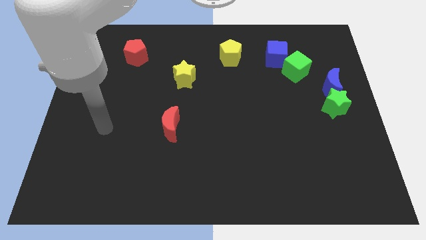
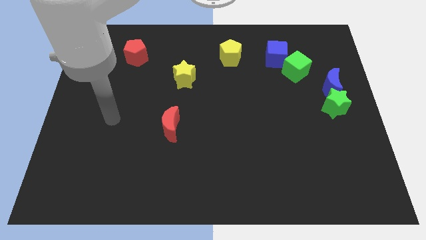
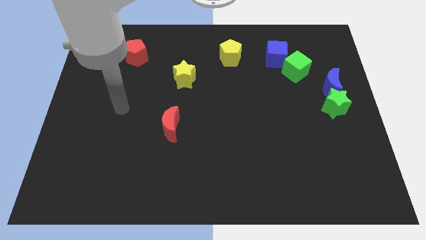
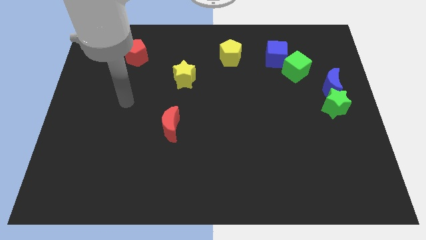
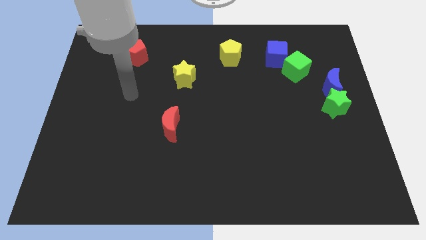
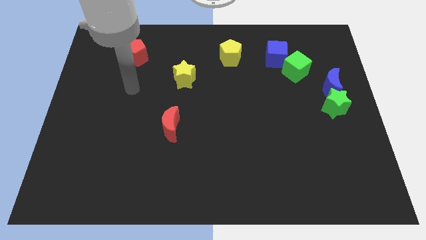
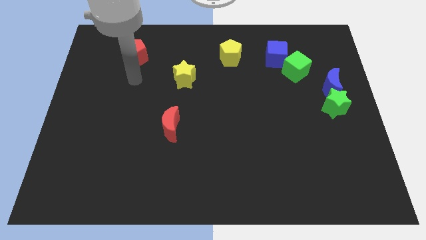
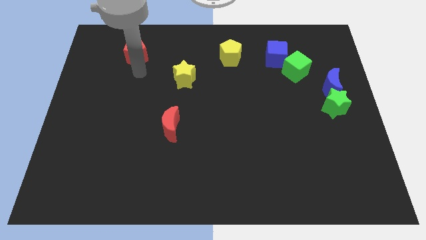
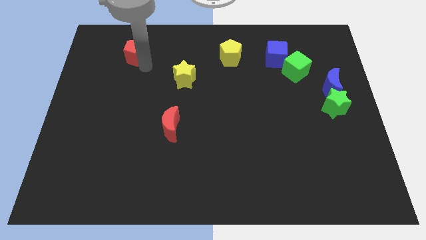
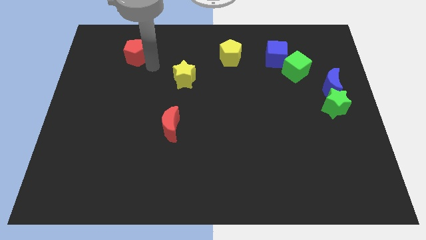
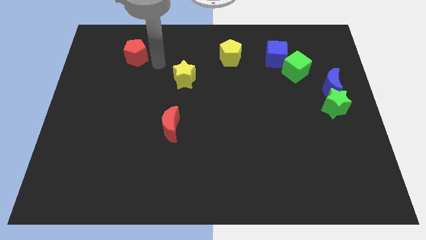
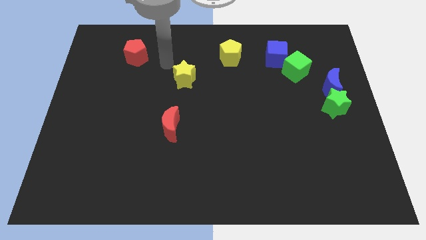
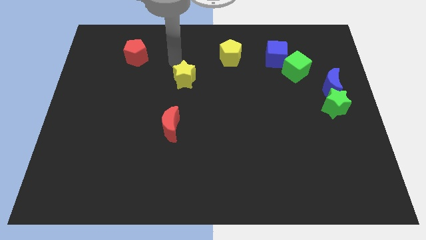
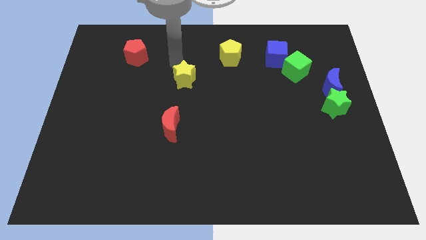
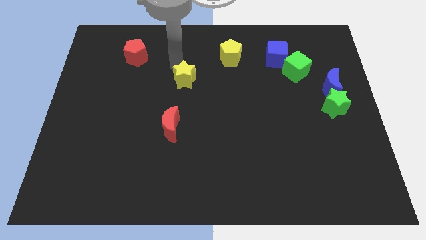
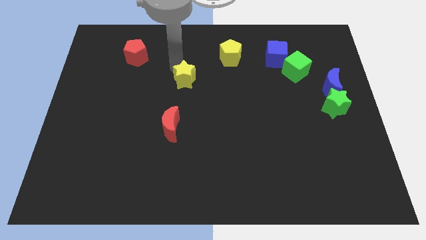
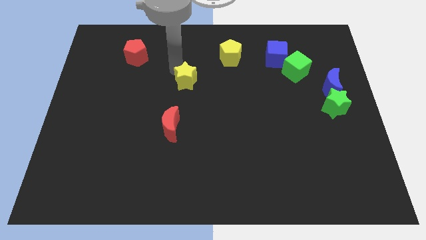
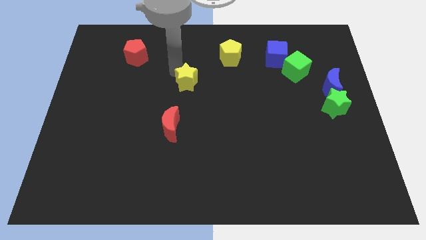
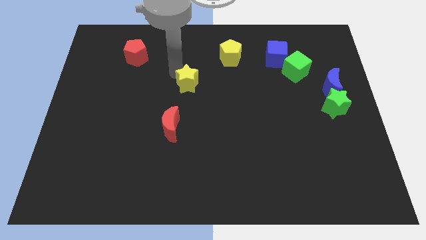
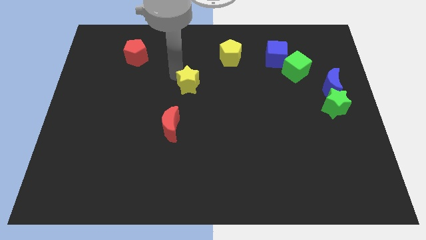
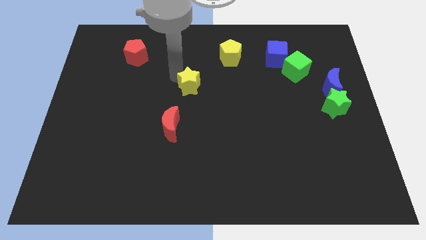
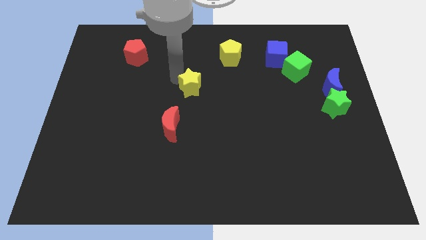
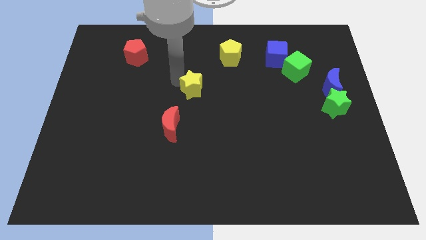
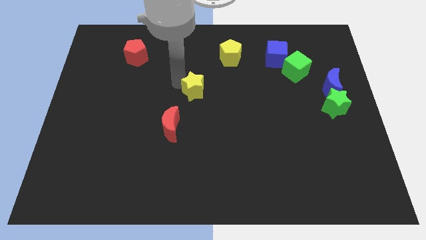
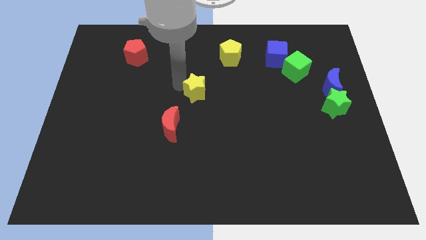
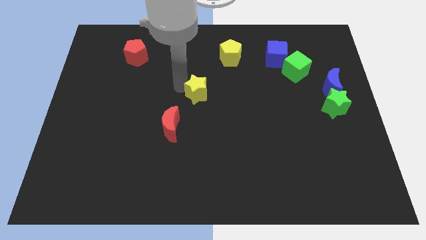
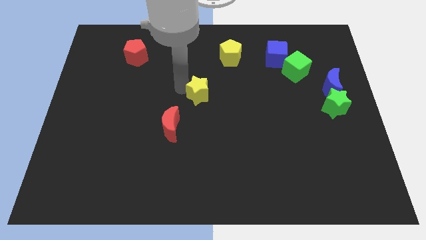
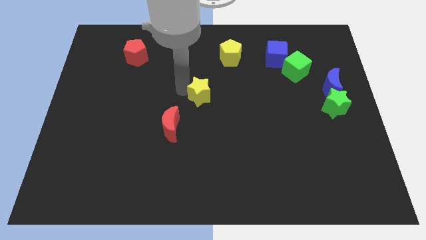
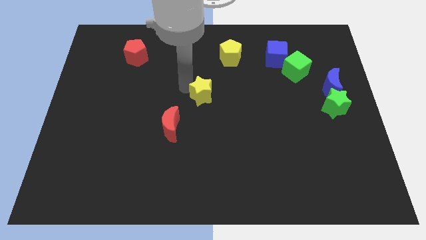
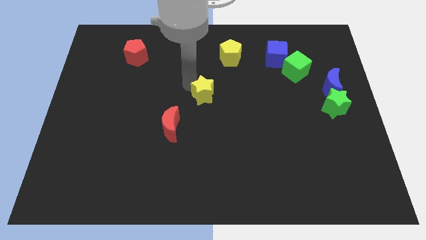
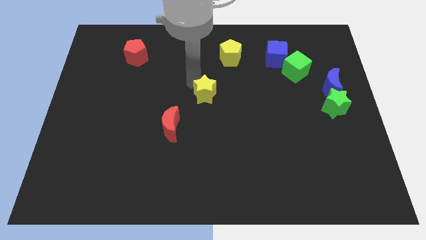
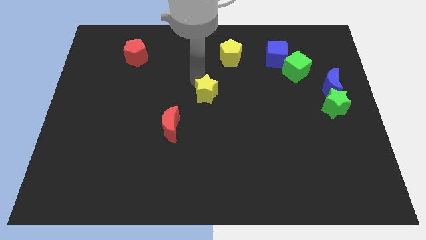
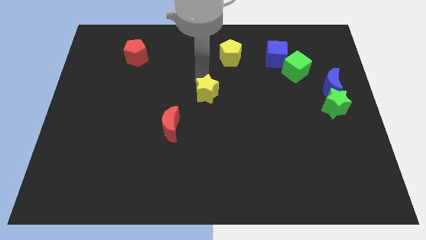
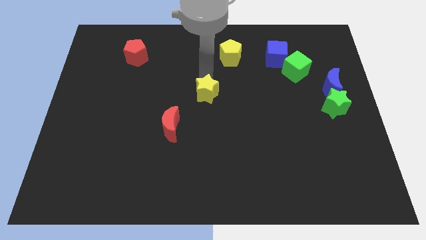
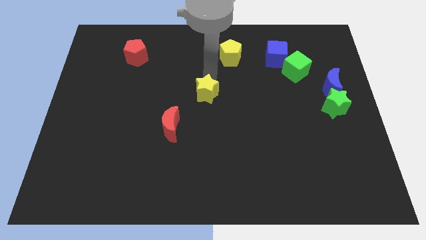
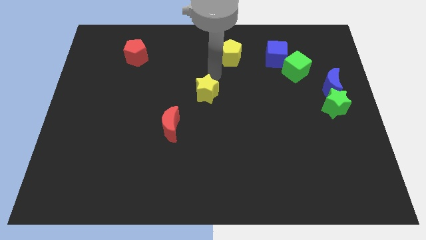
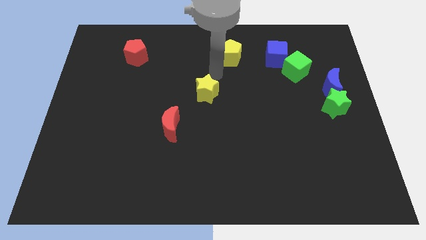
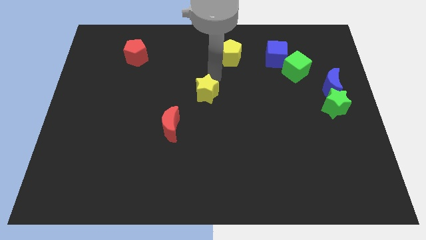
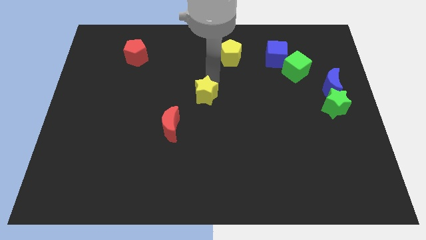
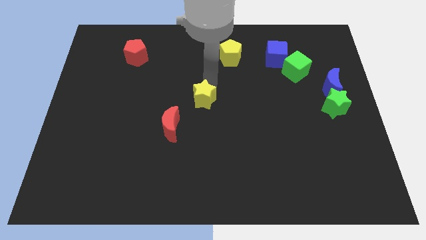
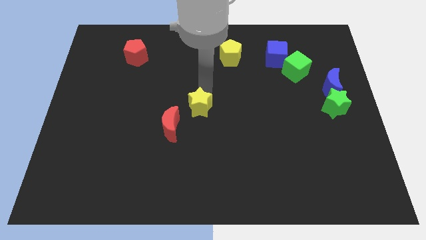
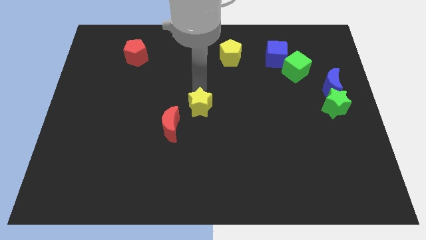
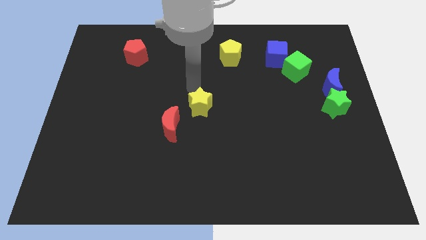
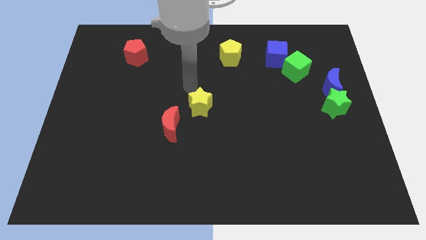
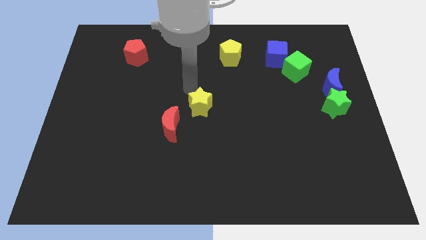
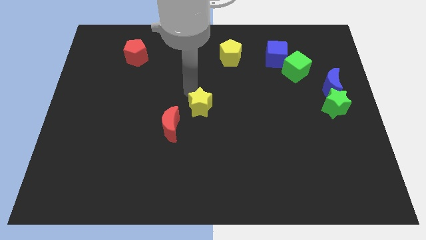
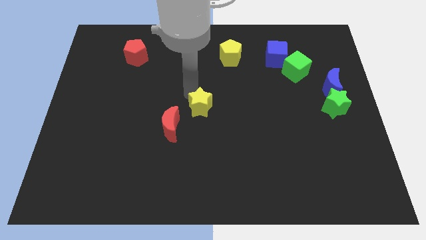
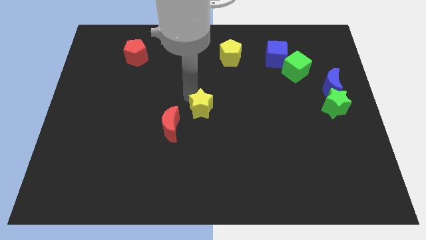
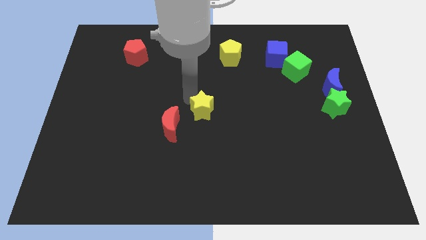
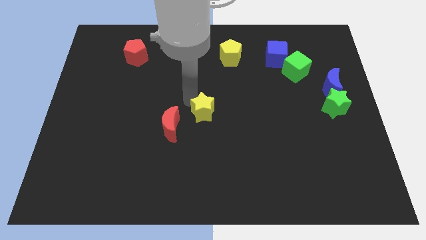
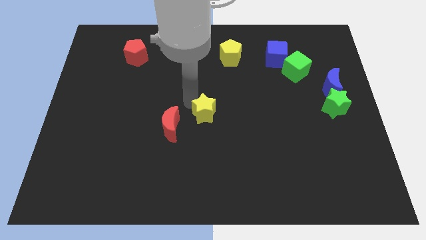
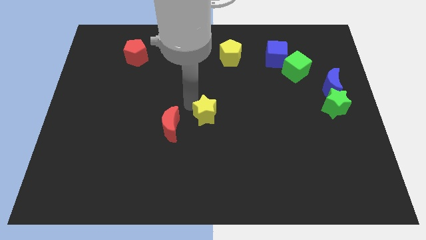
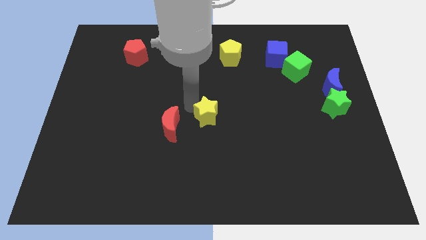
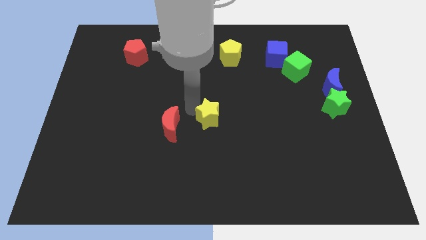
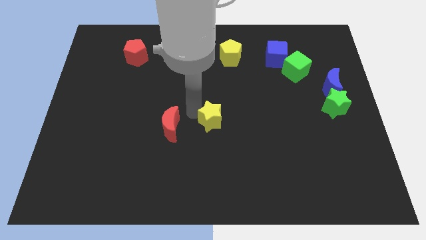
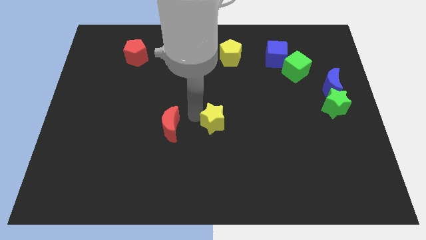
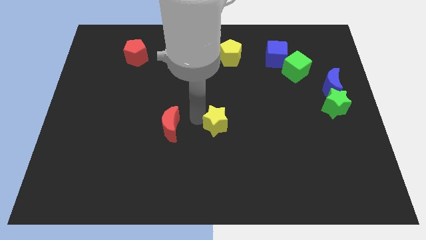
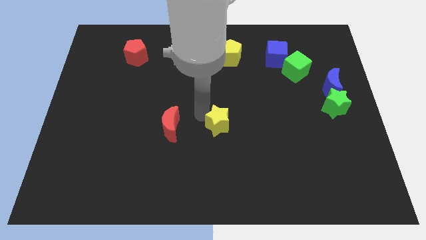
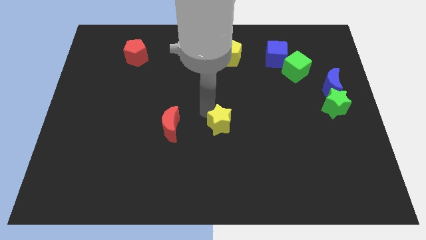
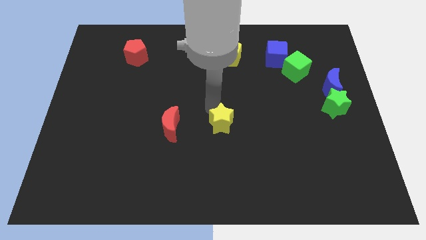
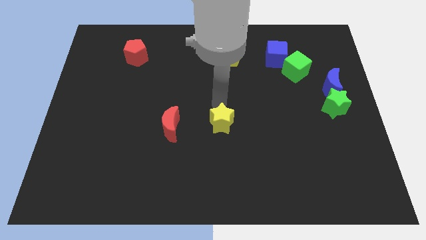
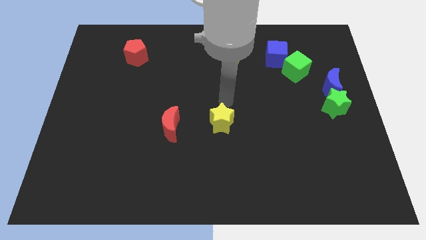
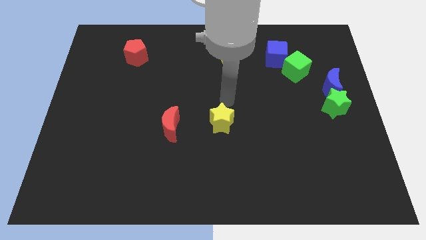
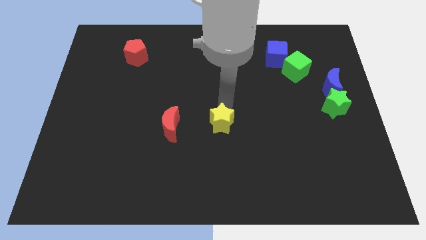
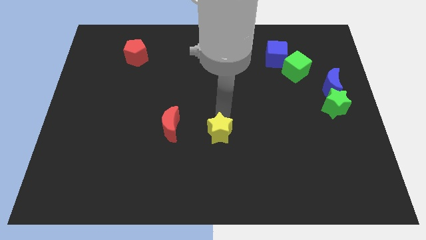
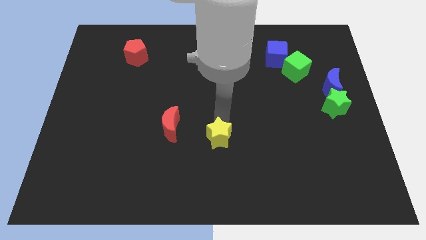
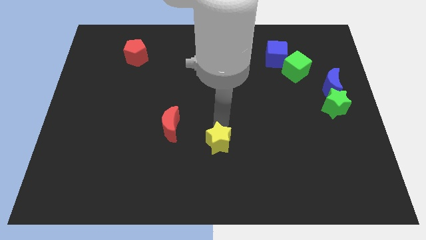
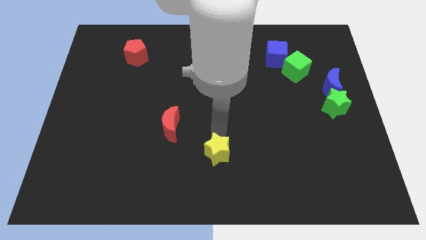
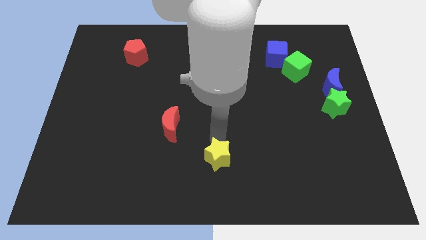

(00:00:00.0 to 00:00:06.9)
move the yellow star to the bottom

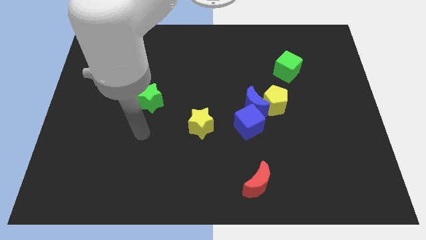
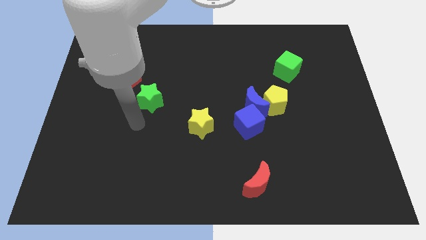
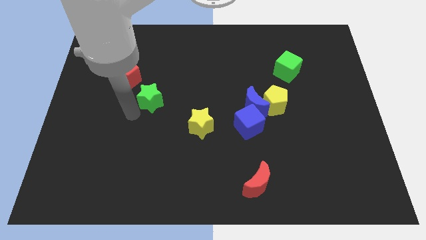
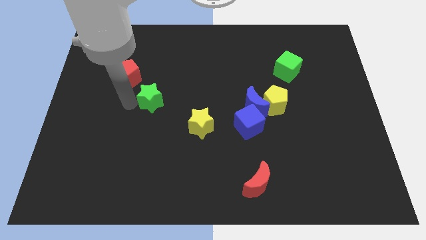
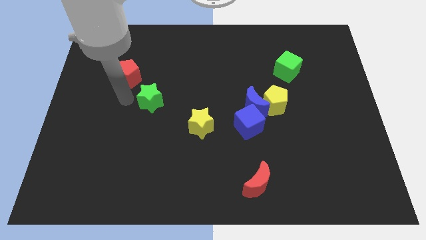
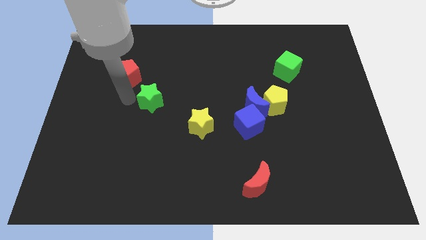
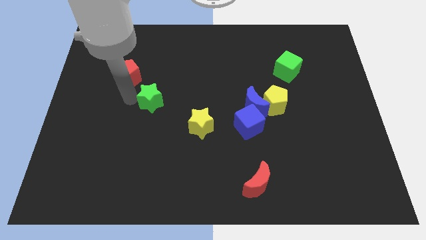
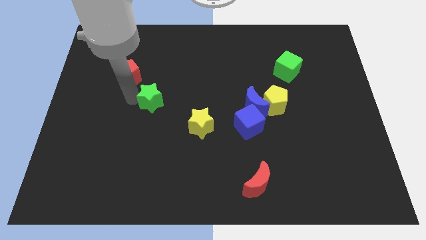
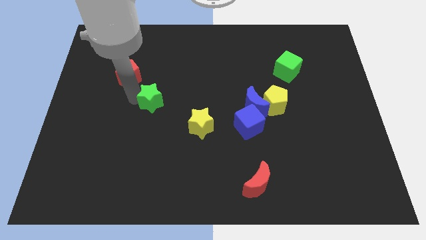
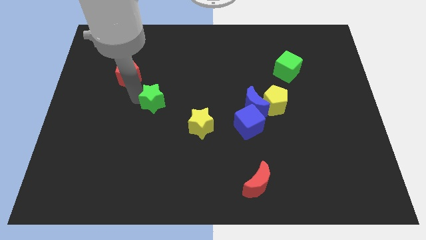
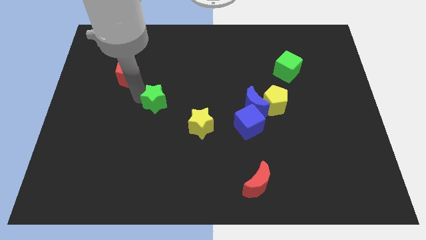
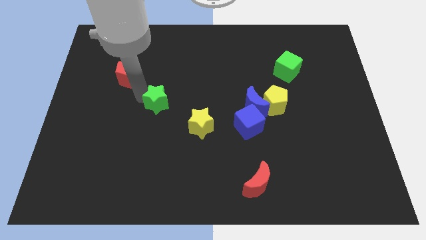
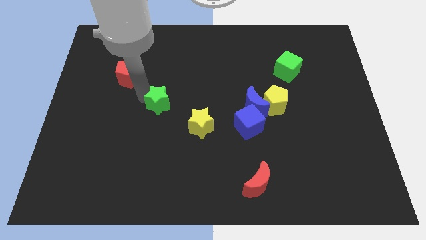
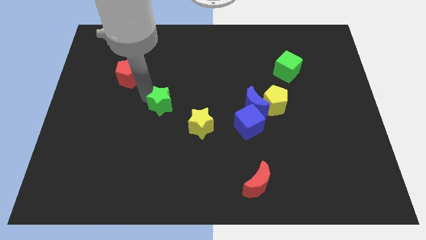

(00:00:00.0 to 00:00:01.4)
move the green star to the center of the board
